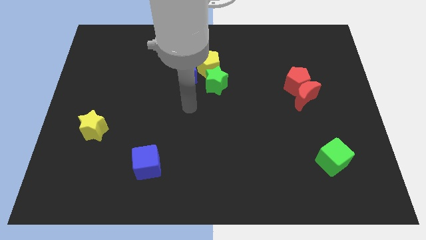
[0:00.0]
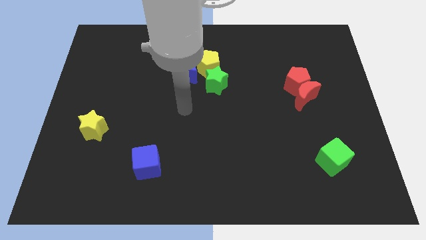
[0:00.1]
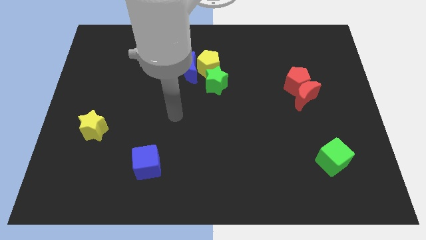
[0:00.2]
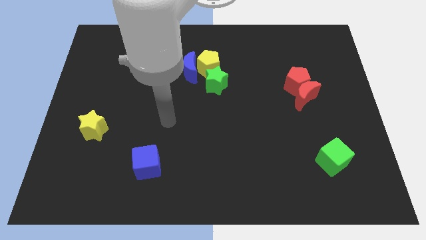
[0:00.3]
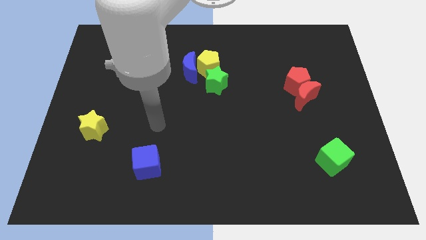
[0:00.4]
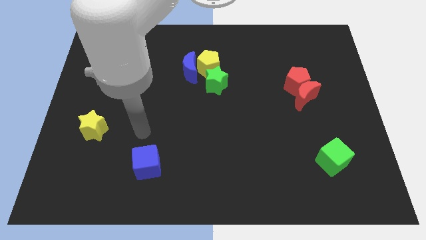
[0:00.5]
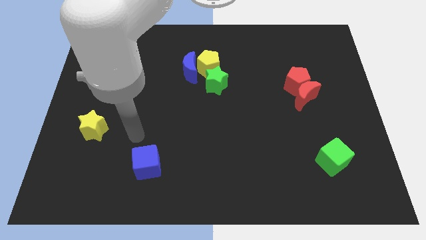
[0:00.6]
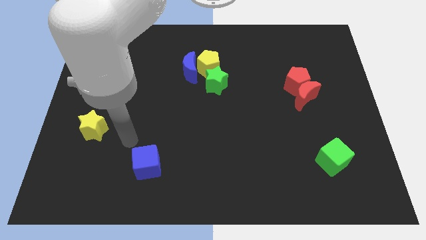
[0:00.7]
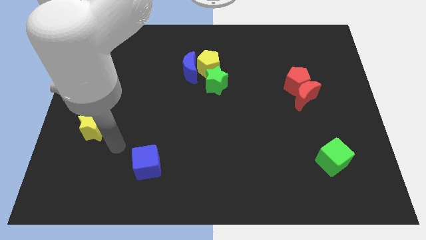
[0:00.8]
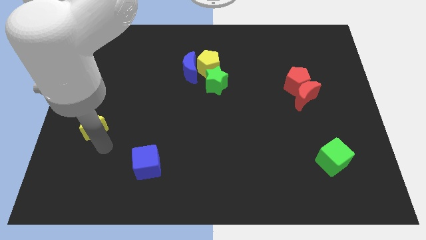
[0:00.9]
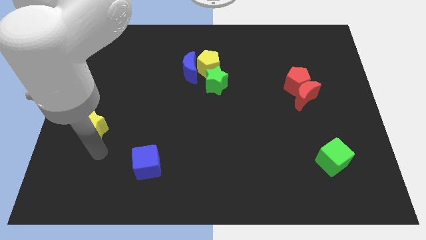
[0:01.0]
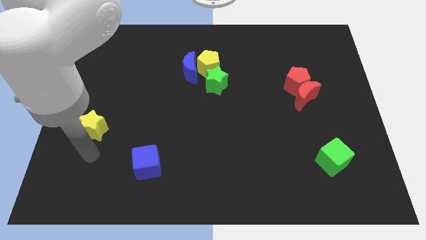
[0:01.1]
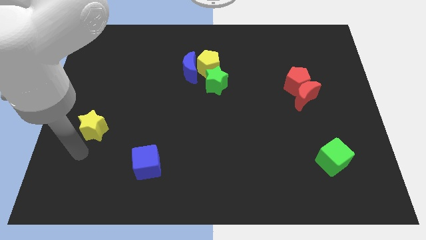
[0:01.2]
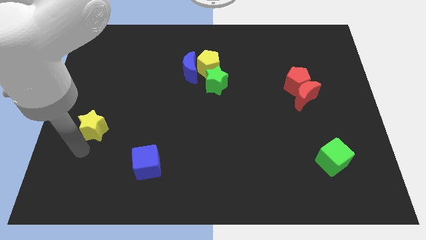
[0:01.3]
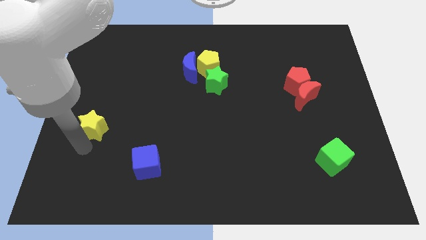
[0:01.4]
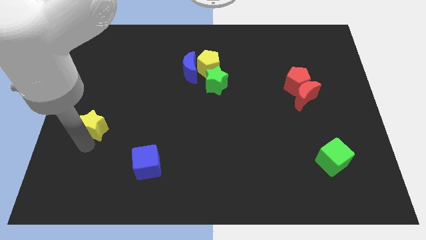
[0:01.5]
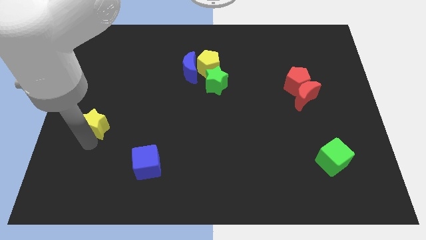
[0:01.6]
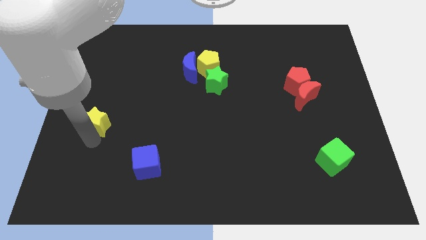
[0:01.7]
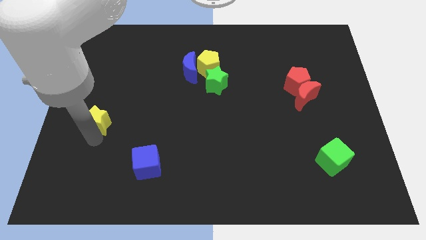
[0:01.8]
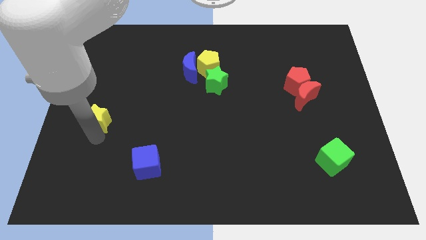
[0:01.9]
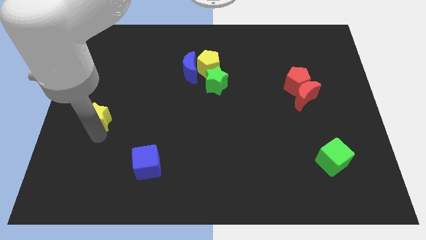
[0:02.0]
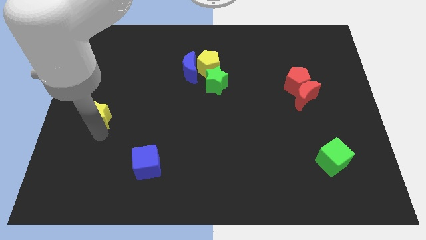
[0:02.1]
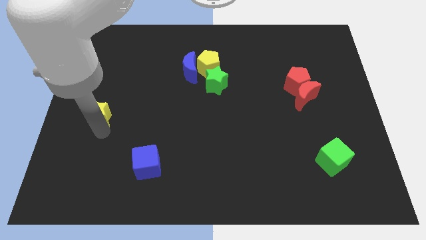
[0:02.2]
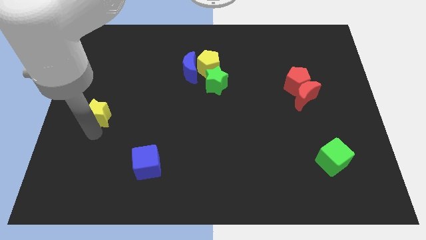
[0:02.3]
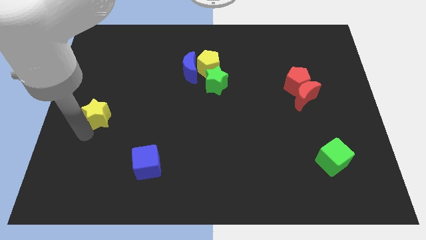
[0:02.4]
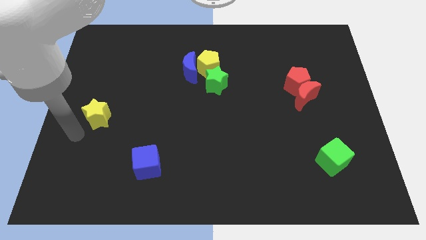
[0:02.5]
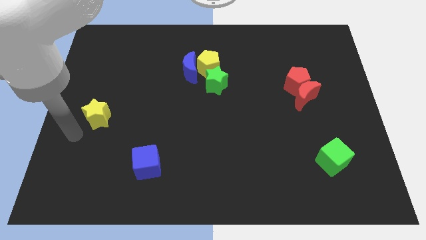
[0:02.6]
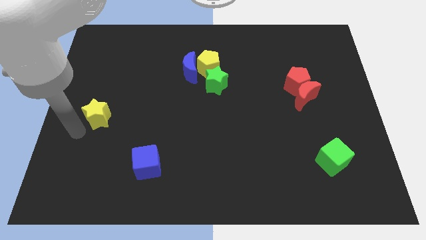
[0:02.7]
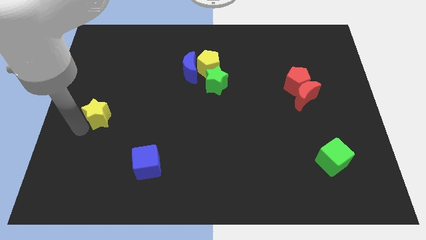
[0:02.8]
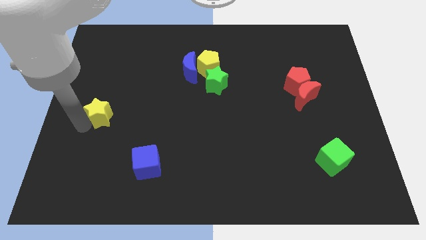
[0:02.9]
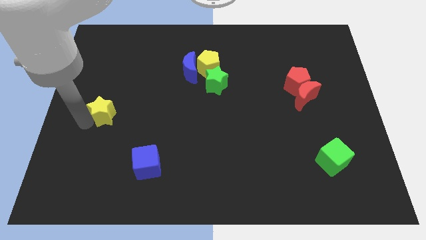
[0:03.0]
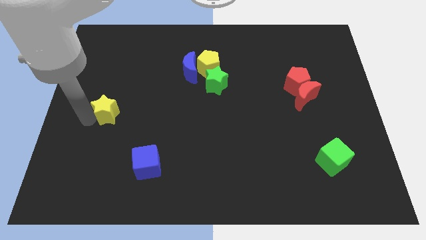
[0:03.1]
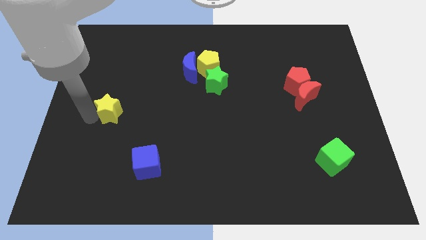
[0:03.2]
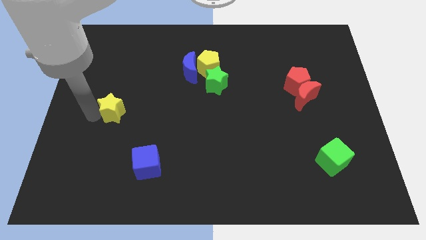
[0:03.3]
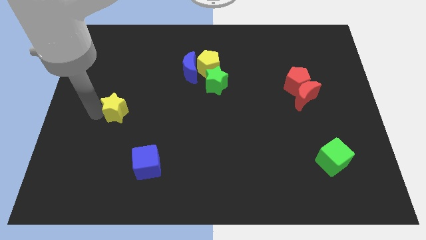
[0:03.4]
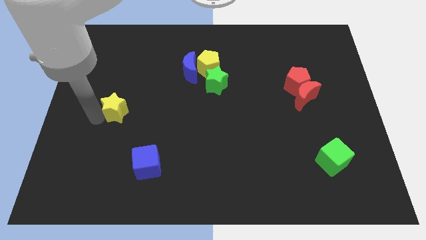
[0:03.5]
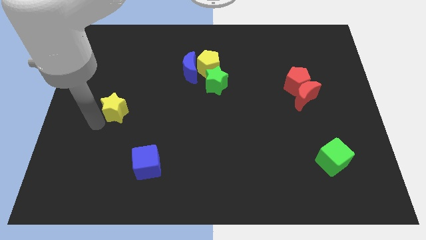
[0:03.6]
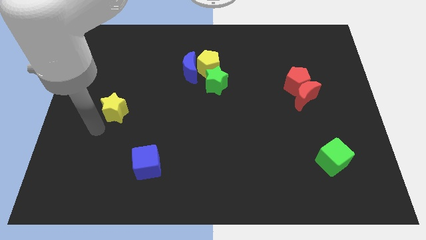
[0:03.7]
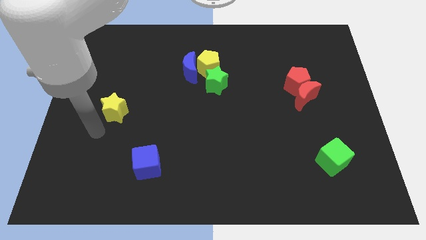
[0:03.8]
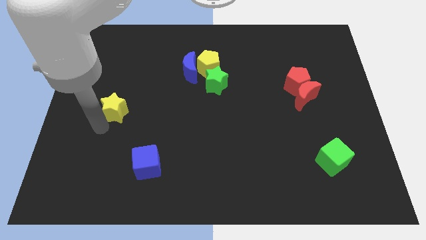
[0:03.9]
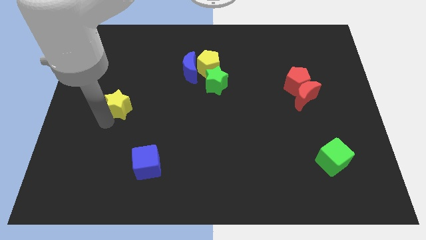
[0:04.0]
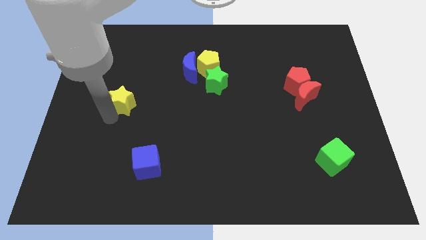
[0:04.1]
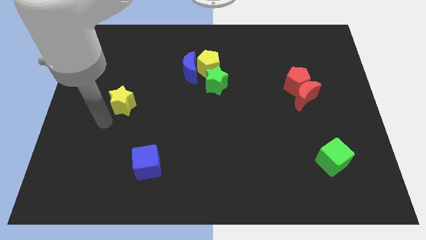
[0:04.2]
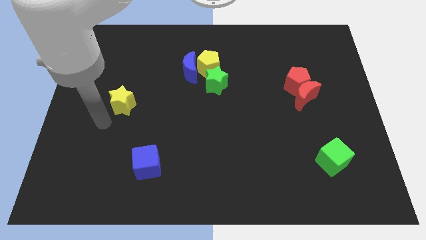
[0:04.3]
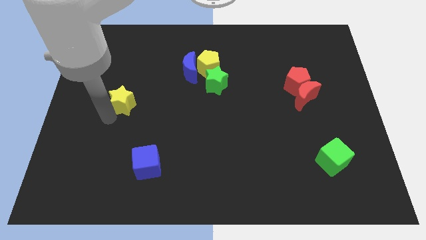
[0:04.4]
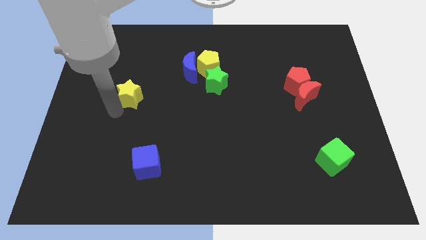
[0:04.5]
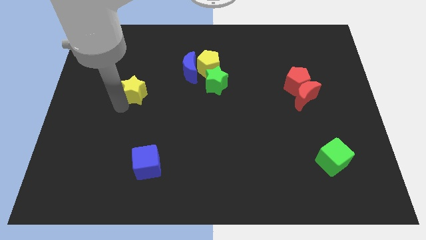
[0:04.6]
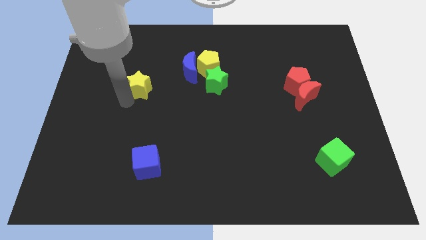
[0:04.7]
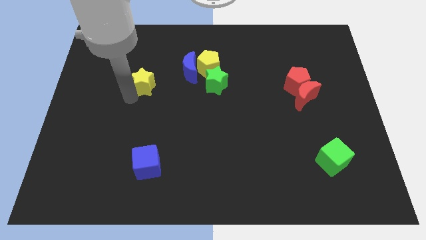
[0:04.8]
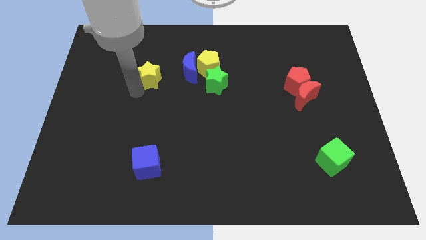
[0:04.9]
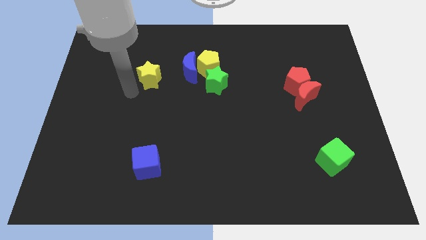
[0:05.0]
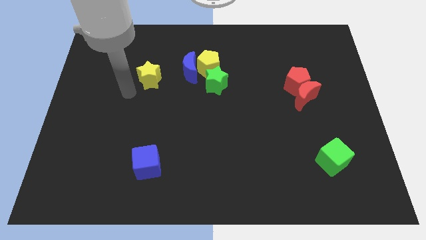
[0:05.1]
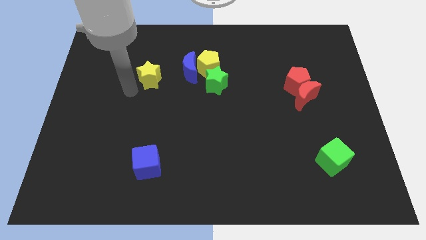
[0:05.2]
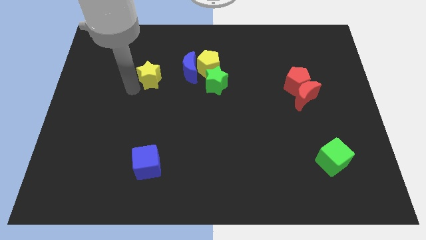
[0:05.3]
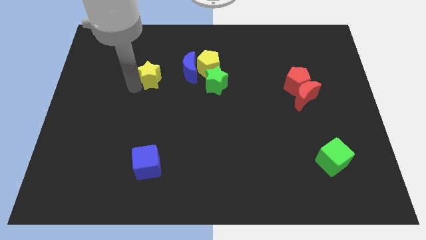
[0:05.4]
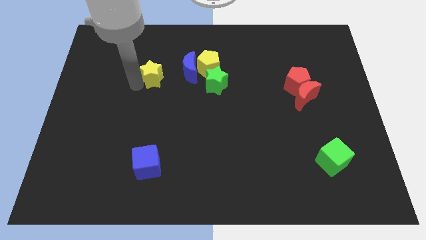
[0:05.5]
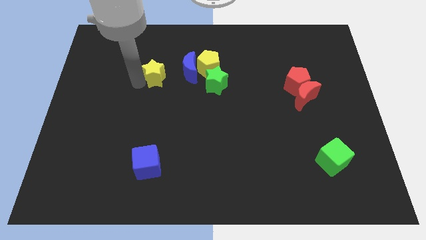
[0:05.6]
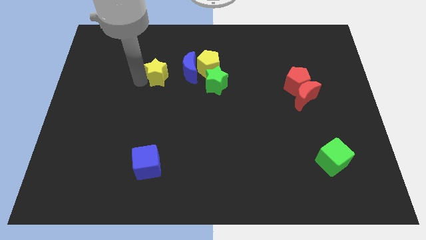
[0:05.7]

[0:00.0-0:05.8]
move the yellow star up and to the right diagonally

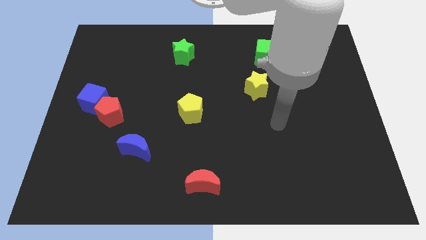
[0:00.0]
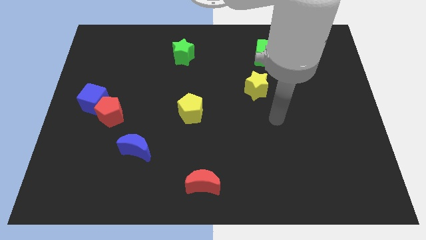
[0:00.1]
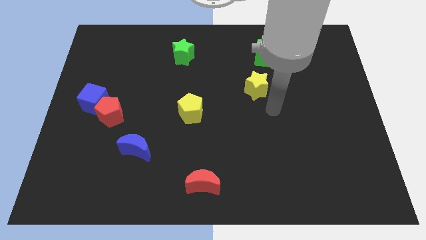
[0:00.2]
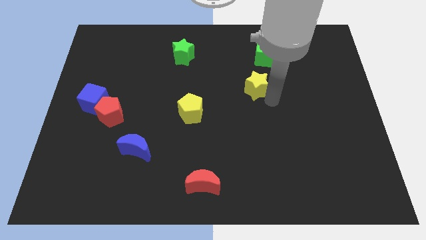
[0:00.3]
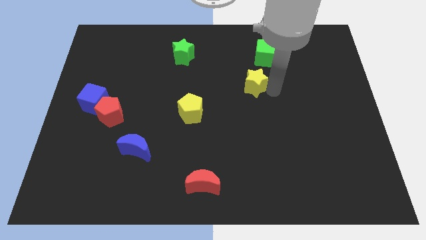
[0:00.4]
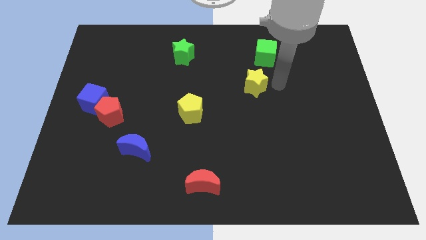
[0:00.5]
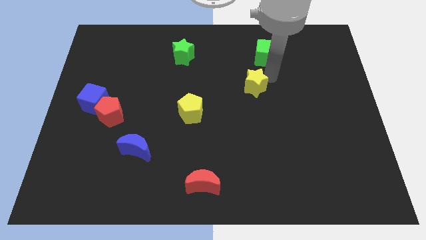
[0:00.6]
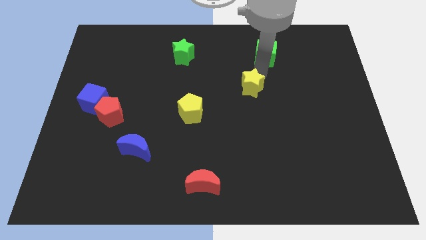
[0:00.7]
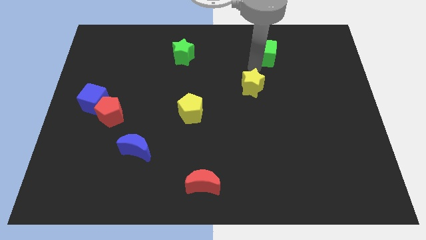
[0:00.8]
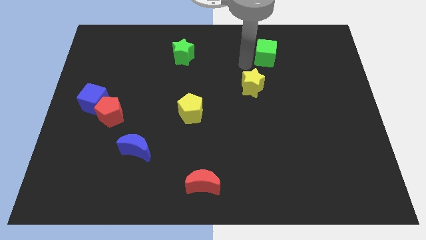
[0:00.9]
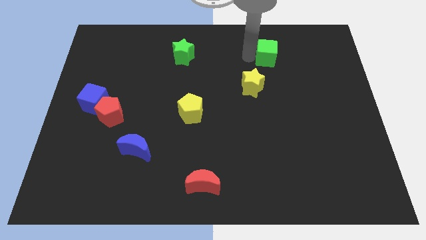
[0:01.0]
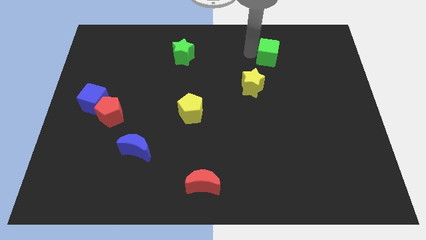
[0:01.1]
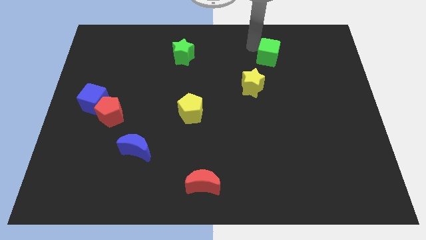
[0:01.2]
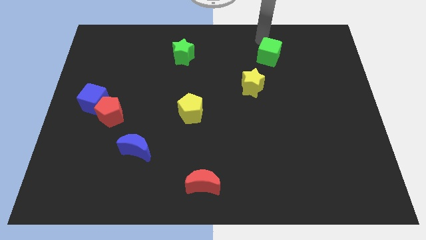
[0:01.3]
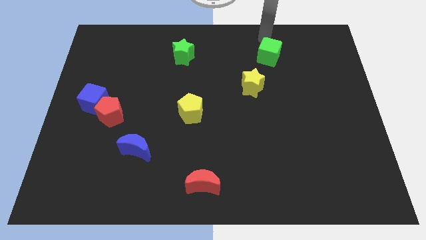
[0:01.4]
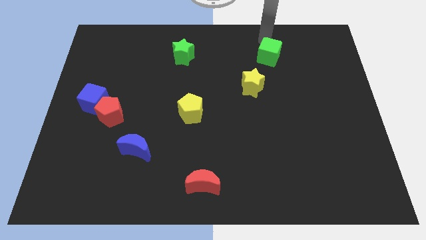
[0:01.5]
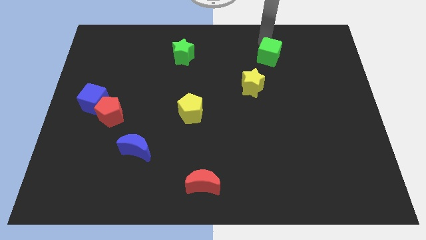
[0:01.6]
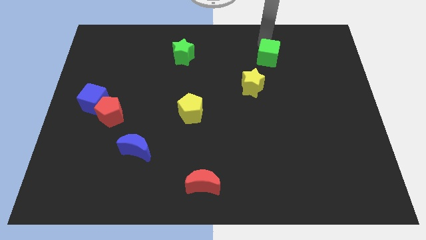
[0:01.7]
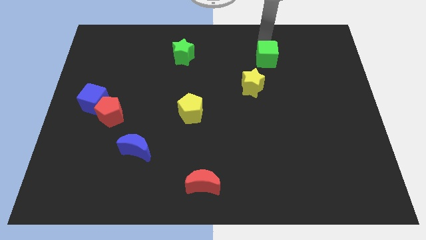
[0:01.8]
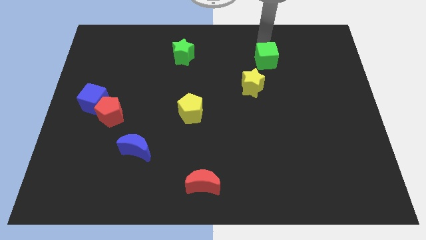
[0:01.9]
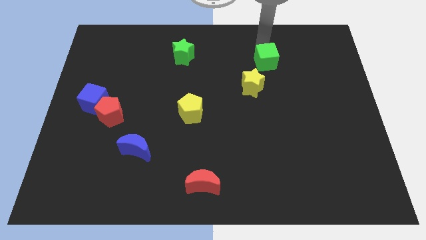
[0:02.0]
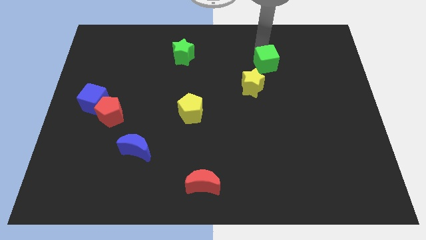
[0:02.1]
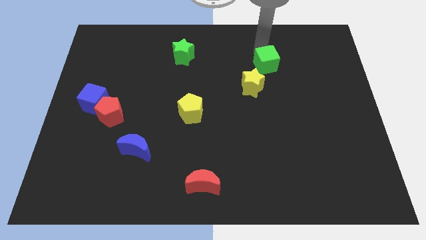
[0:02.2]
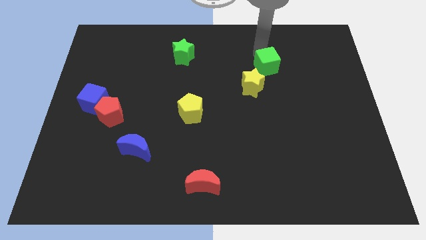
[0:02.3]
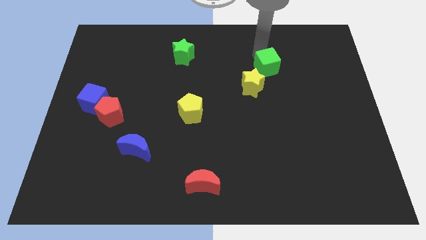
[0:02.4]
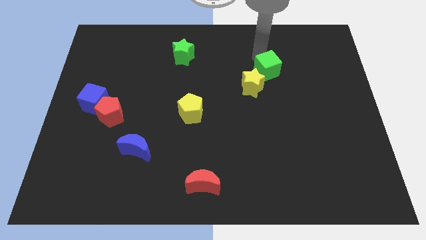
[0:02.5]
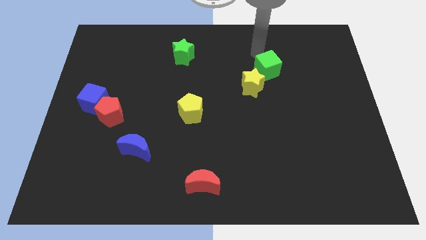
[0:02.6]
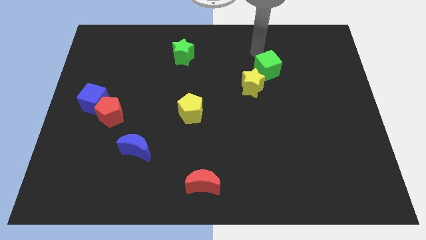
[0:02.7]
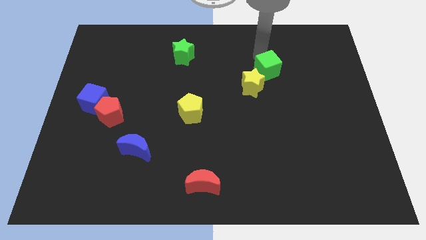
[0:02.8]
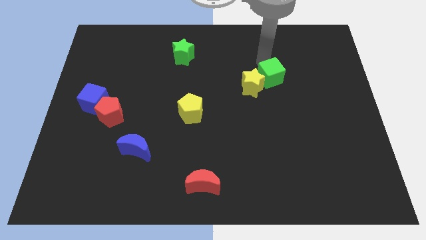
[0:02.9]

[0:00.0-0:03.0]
move the green cube a little bit down
